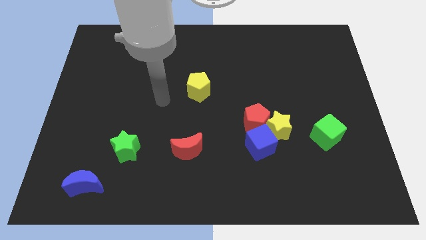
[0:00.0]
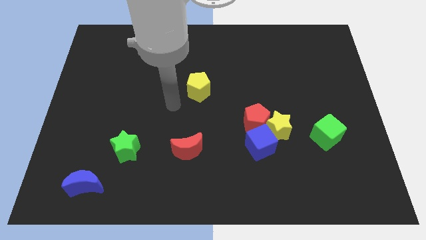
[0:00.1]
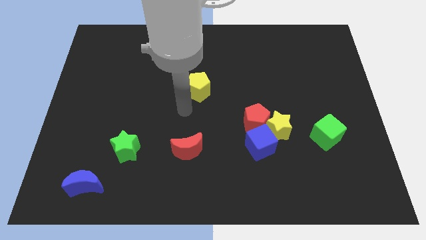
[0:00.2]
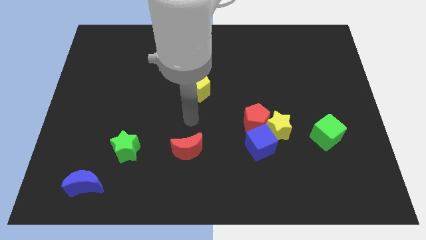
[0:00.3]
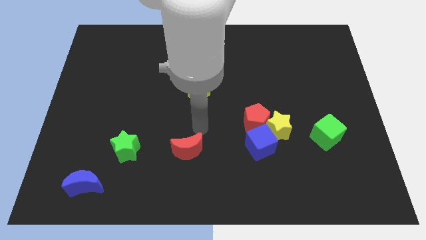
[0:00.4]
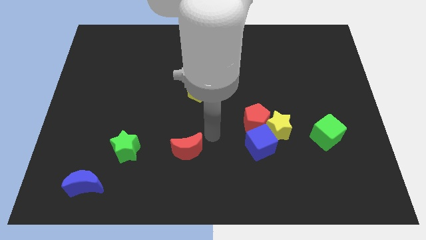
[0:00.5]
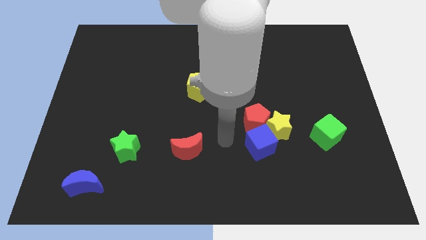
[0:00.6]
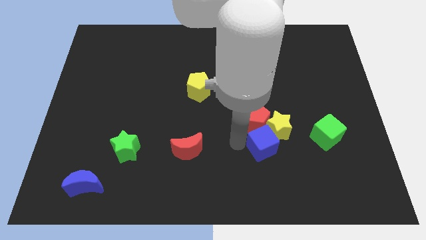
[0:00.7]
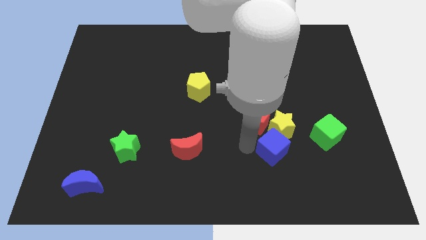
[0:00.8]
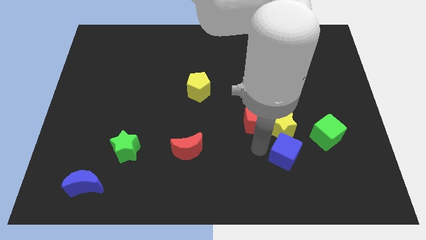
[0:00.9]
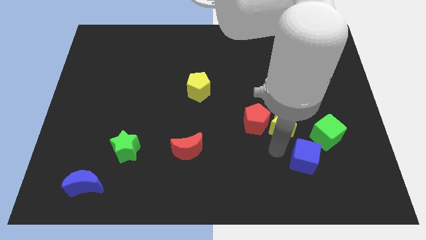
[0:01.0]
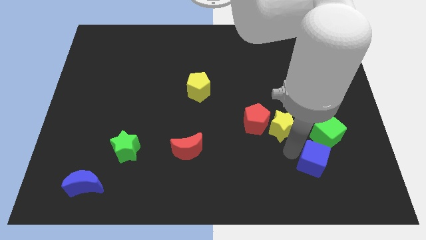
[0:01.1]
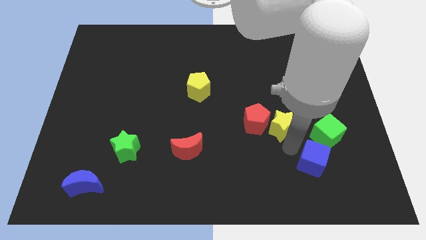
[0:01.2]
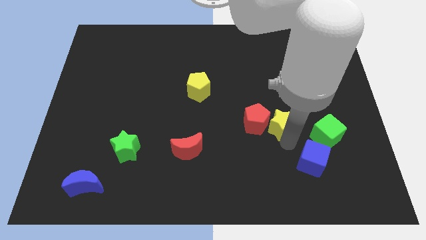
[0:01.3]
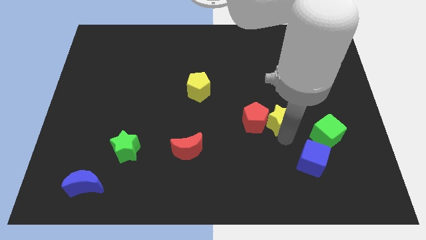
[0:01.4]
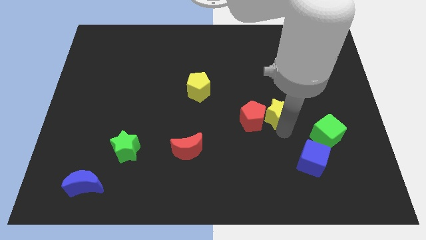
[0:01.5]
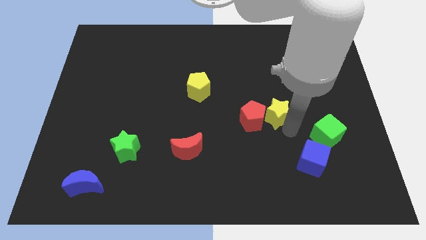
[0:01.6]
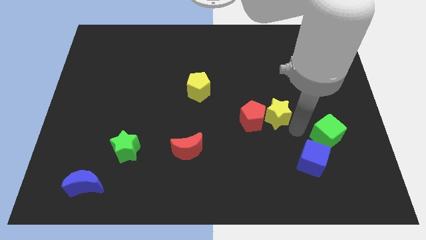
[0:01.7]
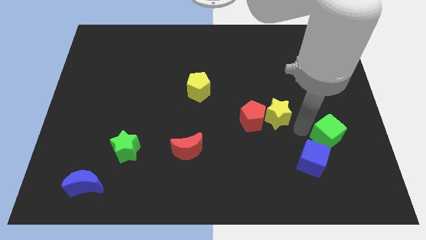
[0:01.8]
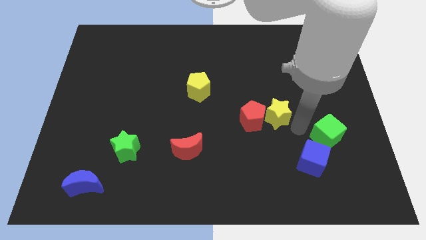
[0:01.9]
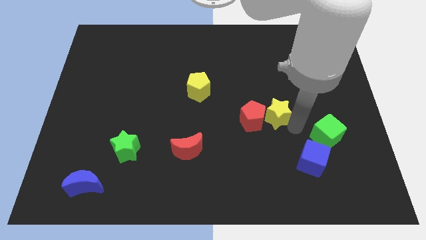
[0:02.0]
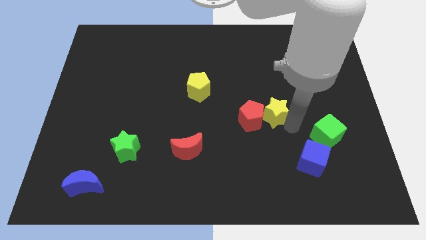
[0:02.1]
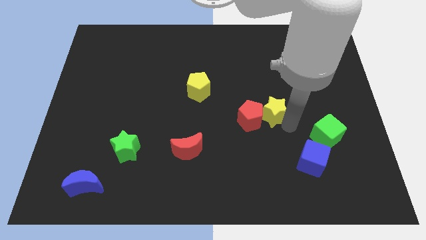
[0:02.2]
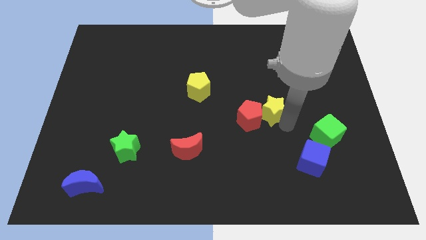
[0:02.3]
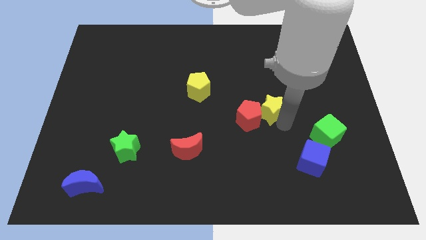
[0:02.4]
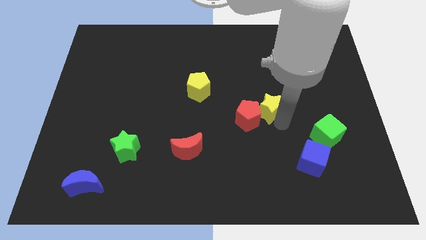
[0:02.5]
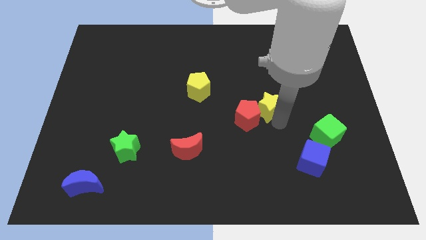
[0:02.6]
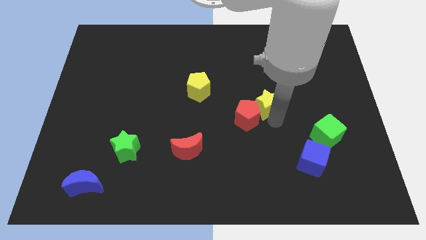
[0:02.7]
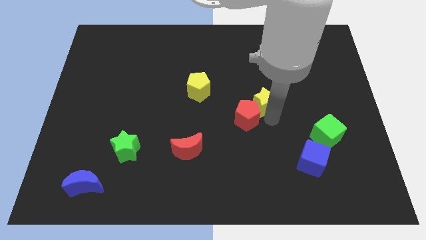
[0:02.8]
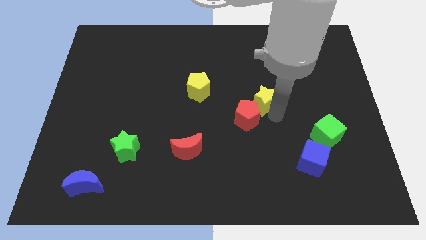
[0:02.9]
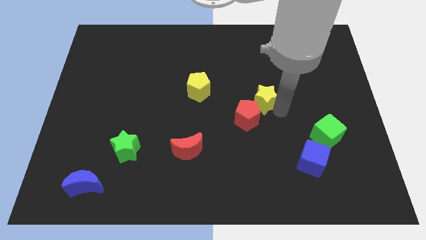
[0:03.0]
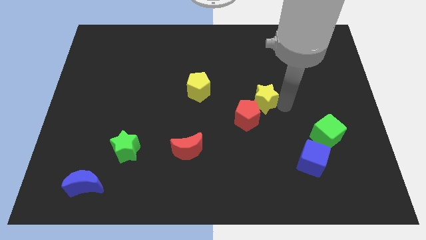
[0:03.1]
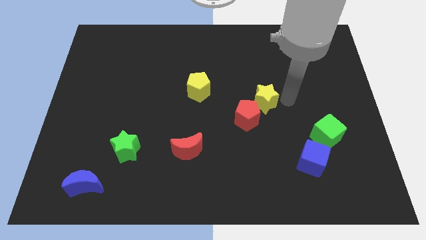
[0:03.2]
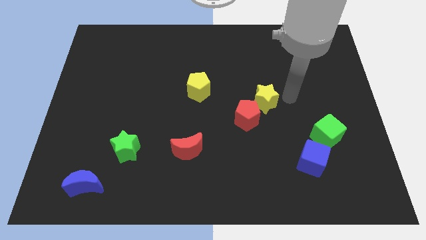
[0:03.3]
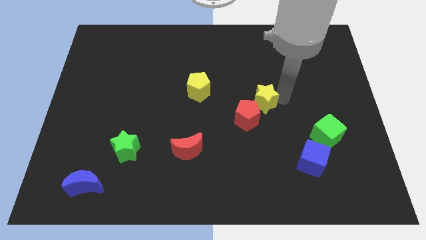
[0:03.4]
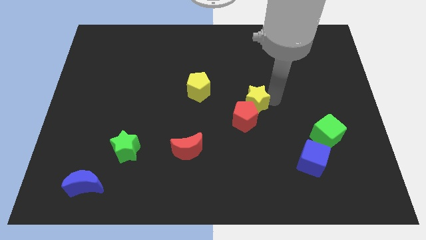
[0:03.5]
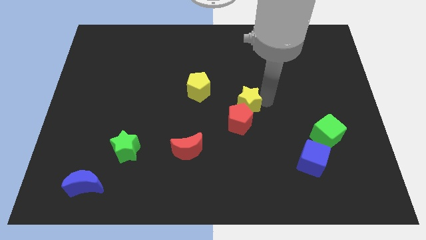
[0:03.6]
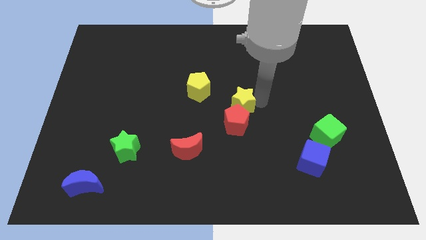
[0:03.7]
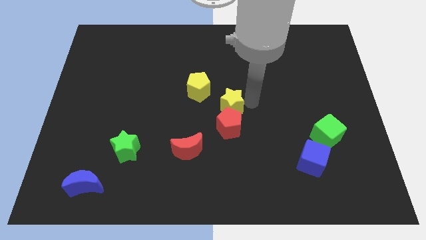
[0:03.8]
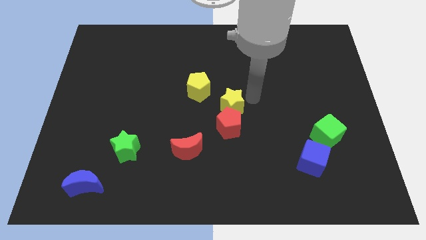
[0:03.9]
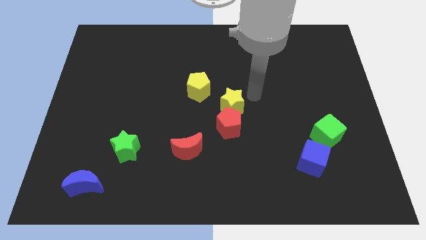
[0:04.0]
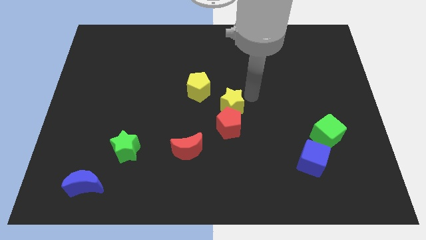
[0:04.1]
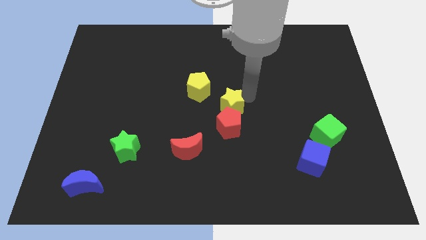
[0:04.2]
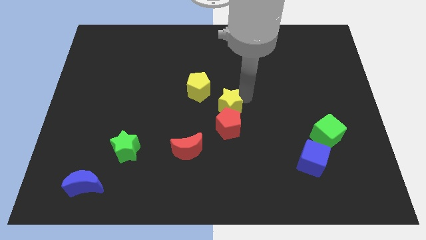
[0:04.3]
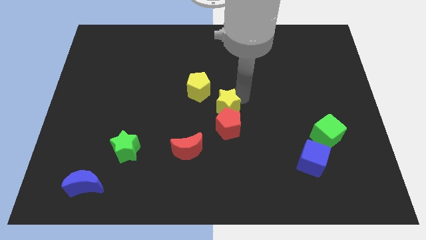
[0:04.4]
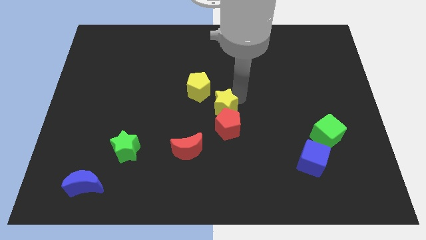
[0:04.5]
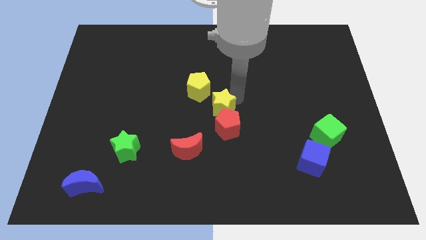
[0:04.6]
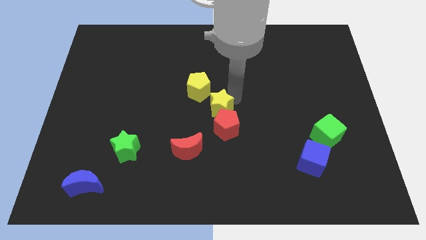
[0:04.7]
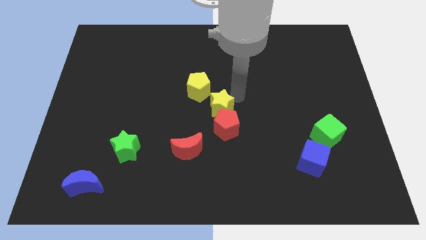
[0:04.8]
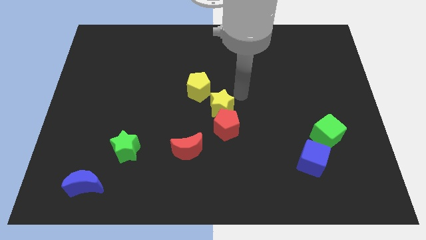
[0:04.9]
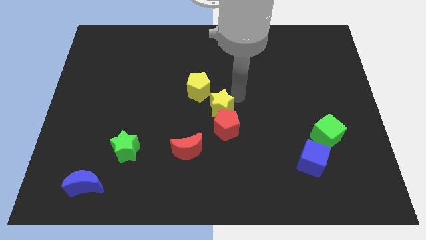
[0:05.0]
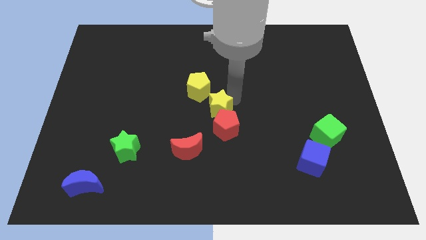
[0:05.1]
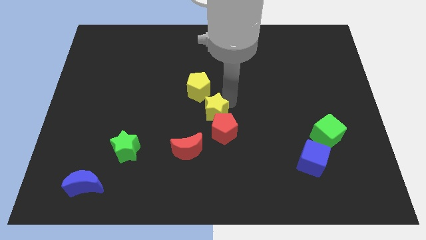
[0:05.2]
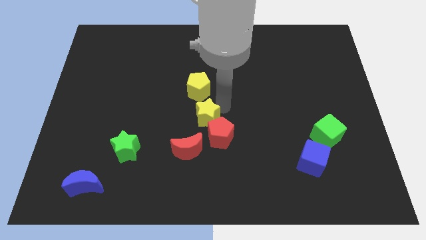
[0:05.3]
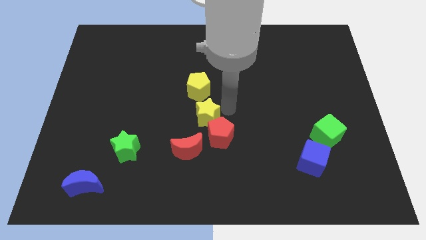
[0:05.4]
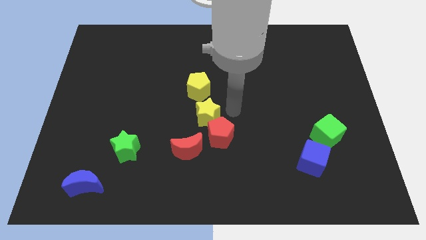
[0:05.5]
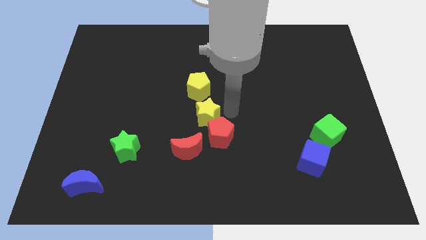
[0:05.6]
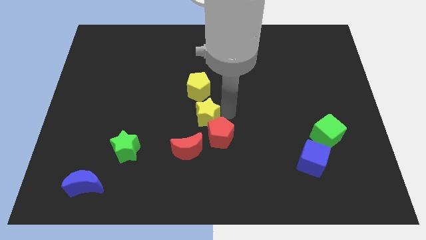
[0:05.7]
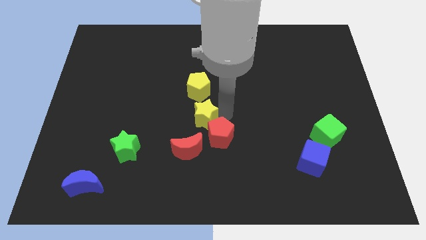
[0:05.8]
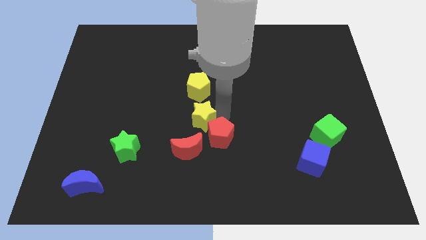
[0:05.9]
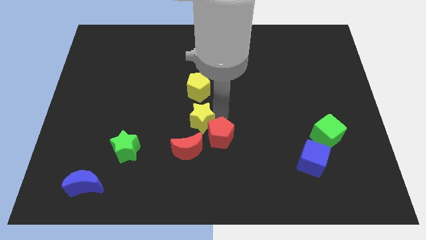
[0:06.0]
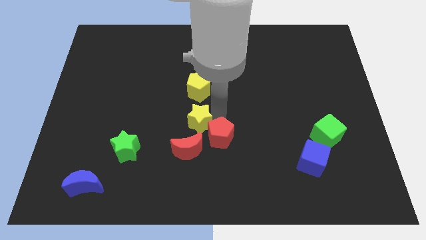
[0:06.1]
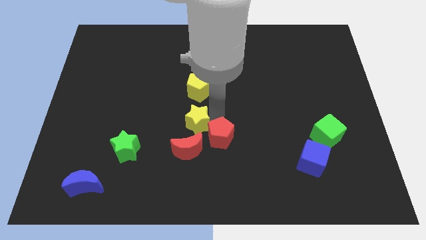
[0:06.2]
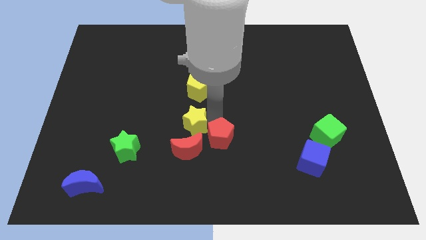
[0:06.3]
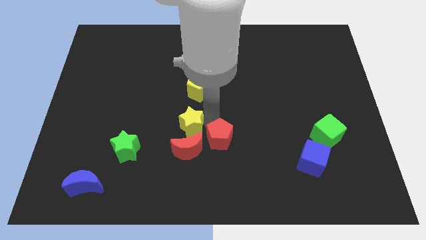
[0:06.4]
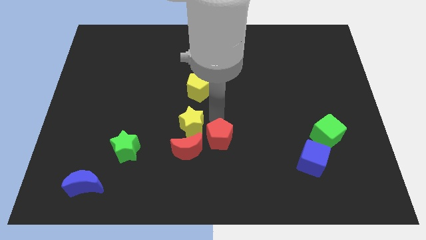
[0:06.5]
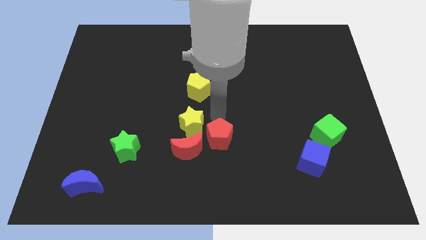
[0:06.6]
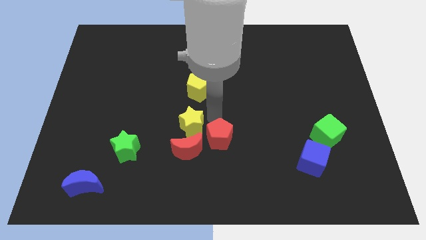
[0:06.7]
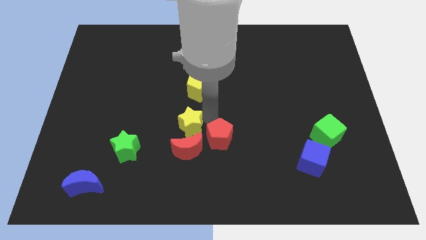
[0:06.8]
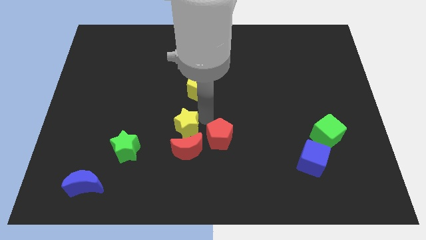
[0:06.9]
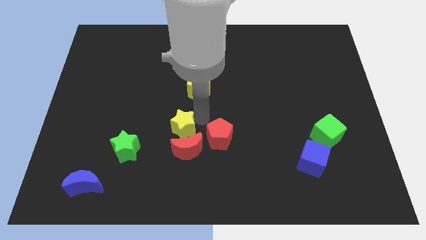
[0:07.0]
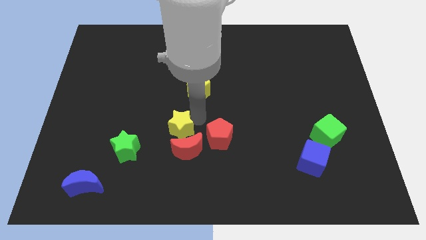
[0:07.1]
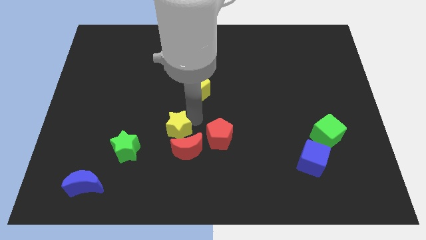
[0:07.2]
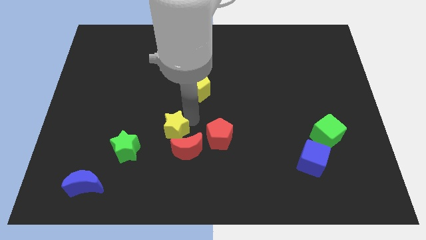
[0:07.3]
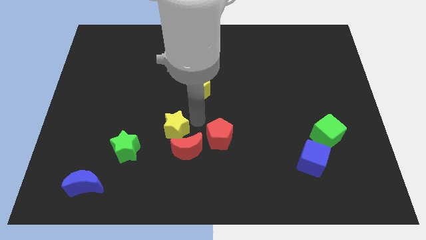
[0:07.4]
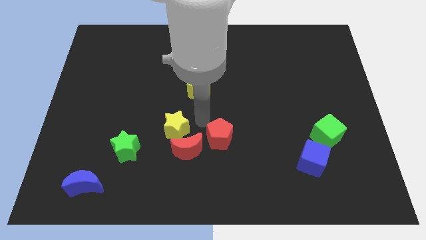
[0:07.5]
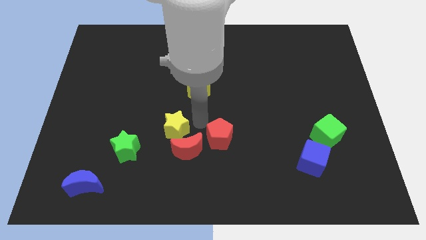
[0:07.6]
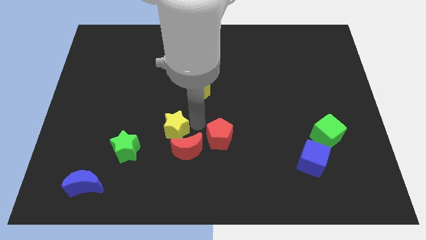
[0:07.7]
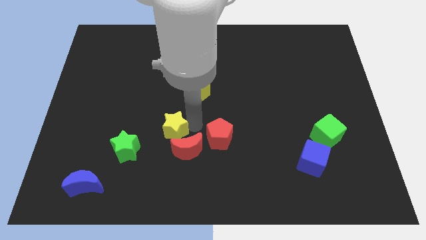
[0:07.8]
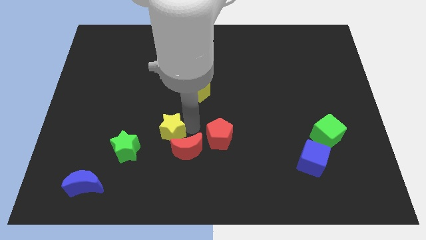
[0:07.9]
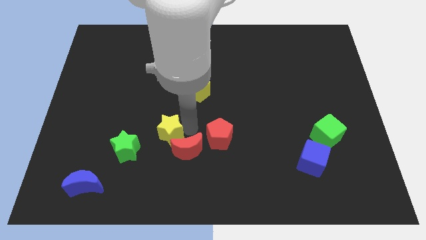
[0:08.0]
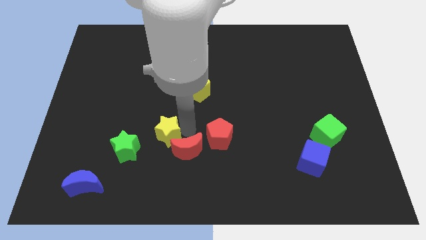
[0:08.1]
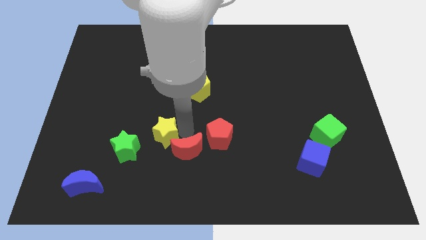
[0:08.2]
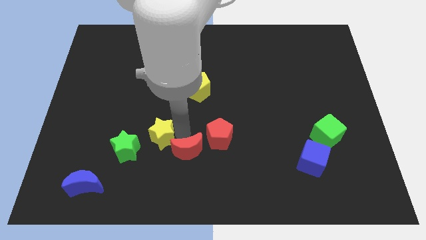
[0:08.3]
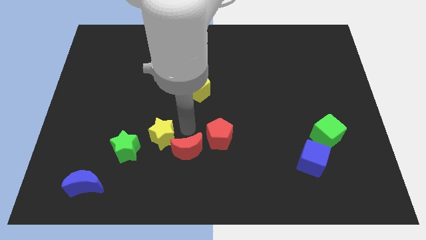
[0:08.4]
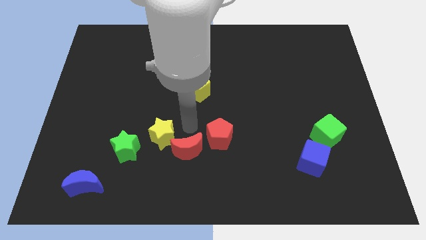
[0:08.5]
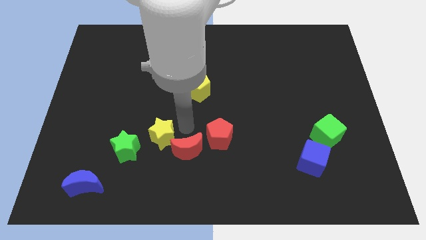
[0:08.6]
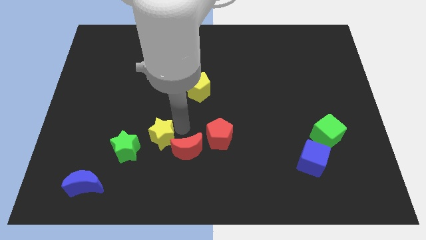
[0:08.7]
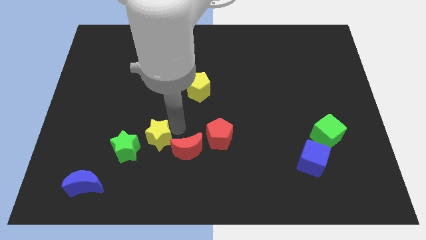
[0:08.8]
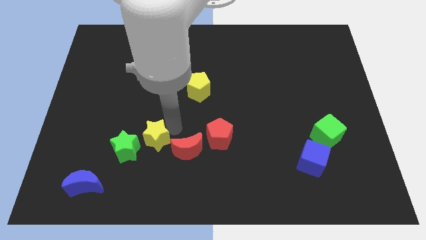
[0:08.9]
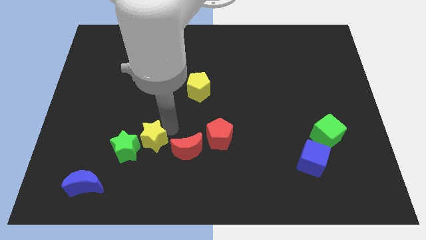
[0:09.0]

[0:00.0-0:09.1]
push the yellow star towards the green star
